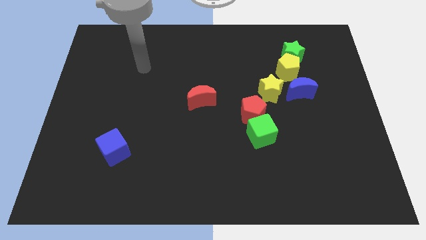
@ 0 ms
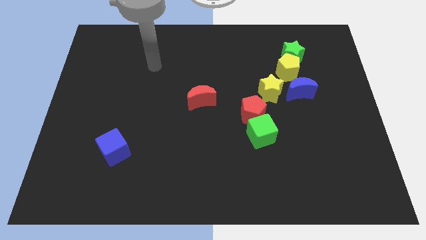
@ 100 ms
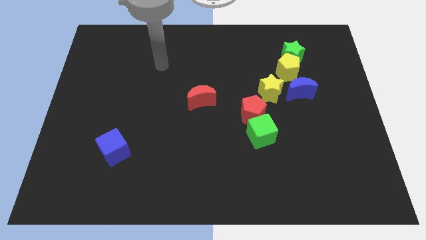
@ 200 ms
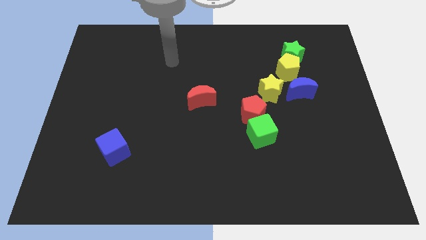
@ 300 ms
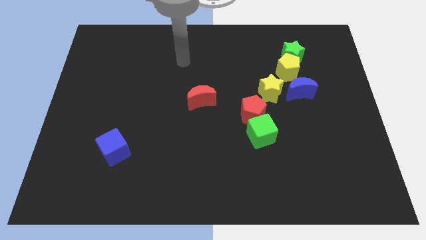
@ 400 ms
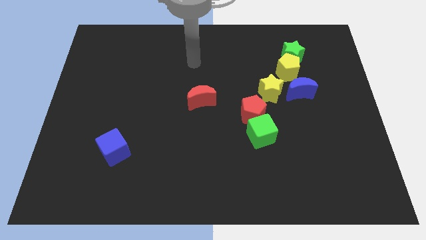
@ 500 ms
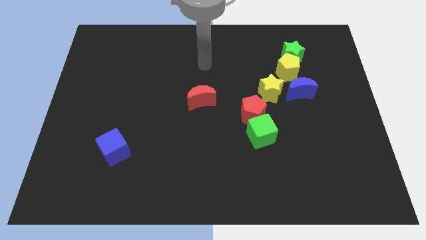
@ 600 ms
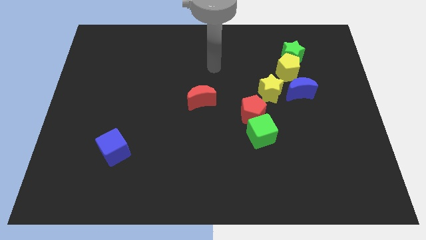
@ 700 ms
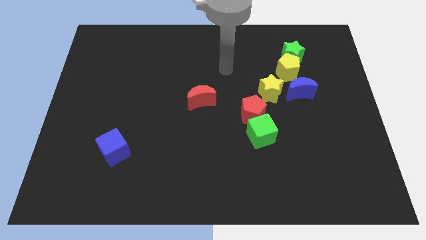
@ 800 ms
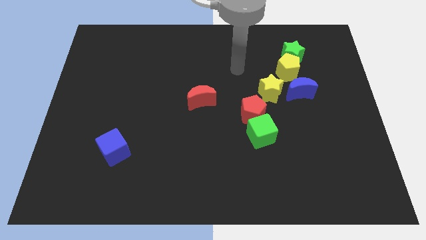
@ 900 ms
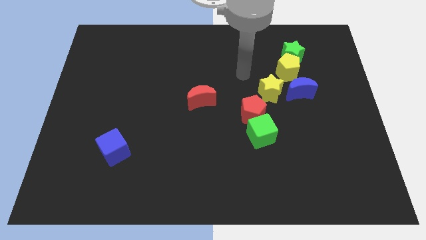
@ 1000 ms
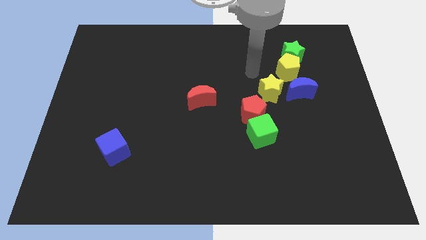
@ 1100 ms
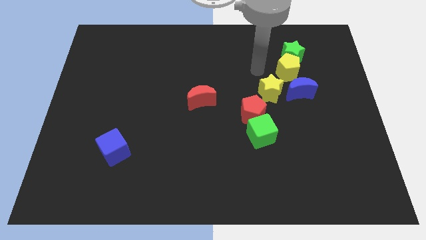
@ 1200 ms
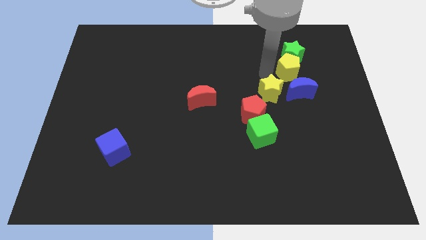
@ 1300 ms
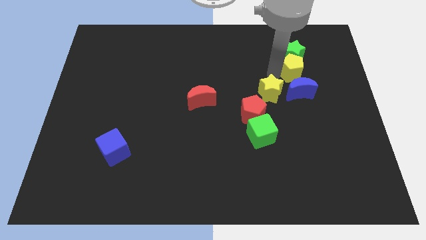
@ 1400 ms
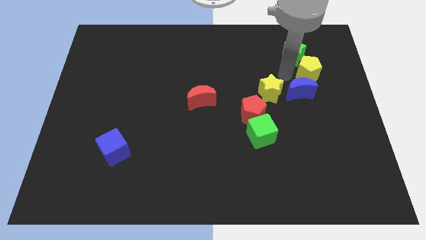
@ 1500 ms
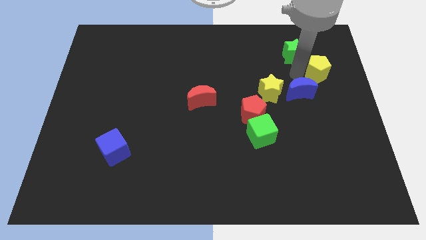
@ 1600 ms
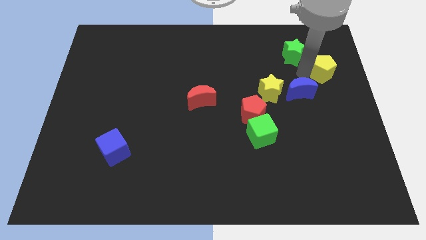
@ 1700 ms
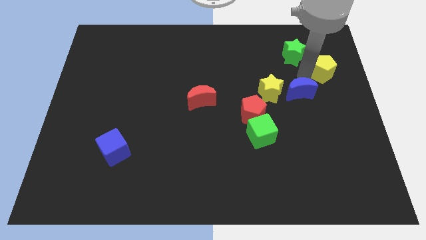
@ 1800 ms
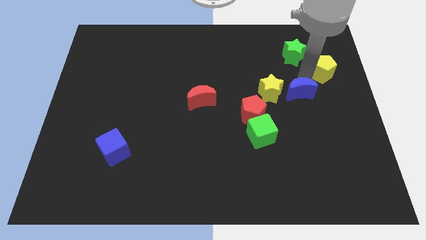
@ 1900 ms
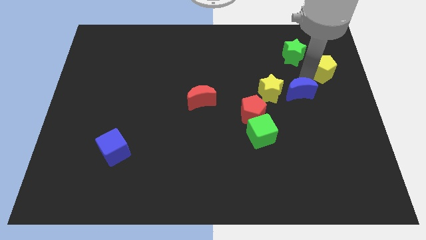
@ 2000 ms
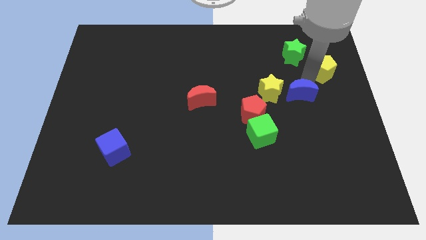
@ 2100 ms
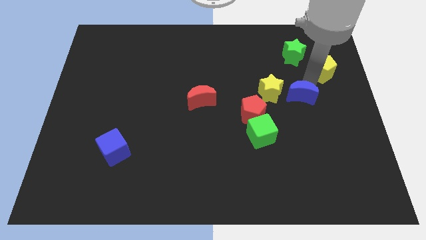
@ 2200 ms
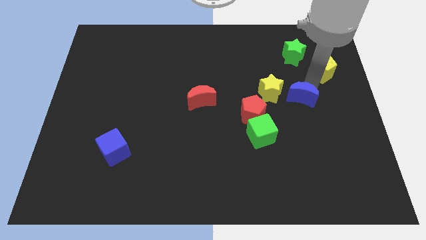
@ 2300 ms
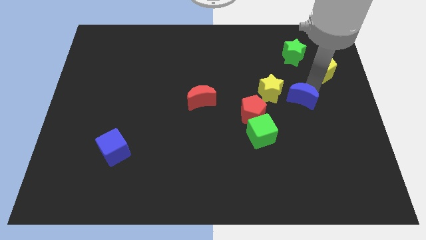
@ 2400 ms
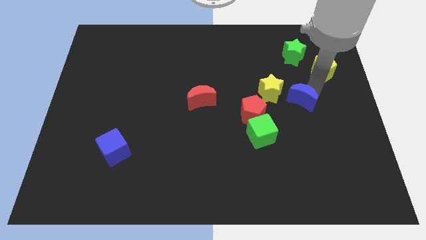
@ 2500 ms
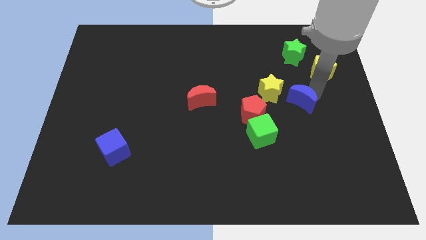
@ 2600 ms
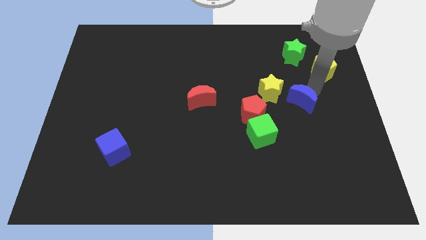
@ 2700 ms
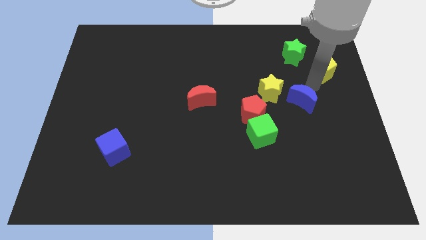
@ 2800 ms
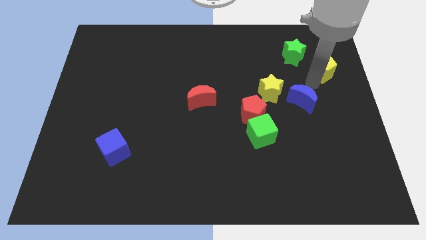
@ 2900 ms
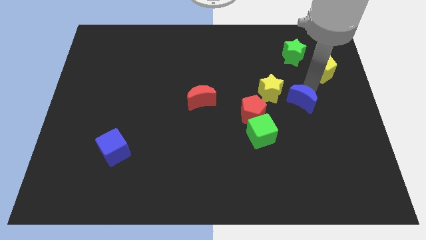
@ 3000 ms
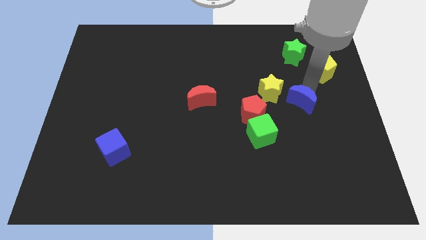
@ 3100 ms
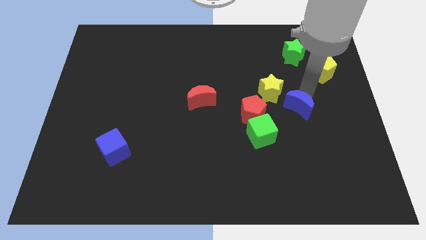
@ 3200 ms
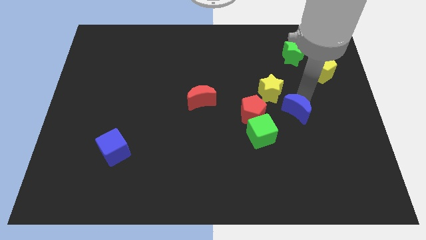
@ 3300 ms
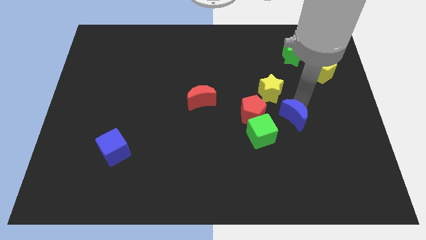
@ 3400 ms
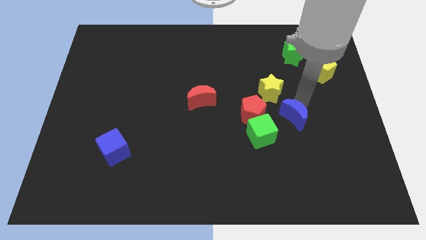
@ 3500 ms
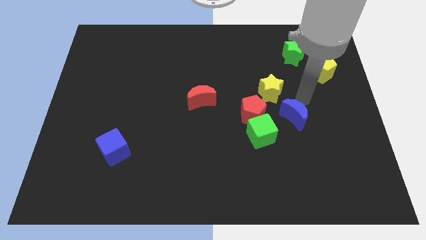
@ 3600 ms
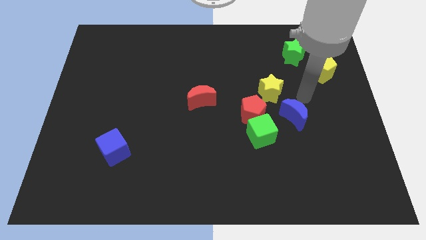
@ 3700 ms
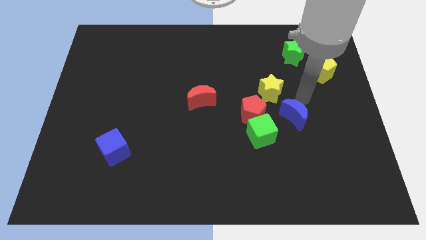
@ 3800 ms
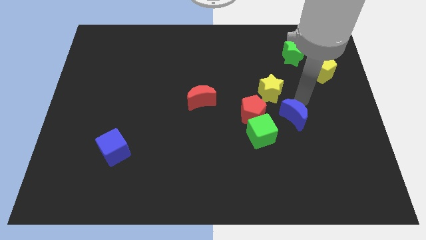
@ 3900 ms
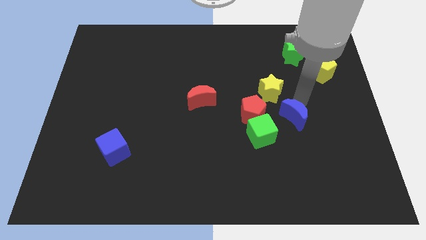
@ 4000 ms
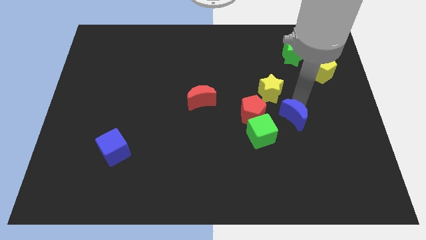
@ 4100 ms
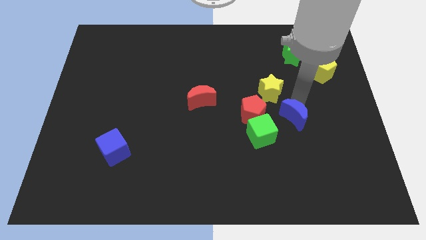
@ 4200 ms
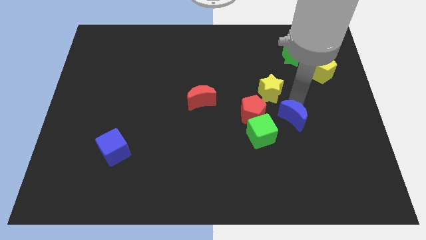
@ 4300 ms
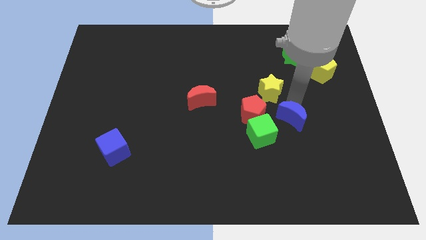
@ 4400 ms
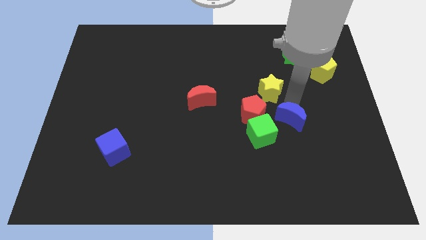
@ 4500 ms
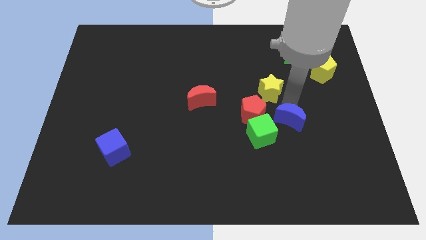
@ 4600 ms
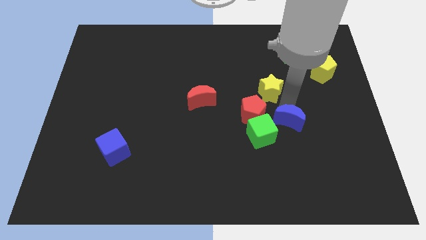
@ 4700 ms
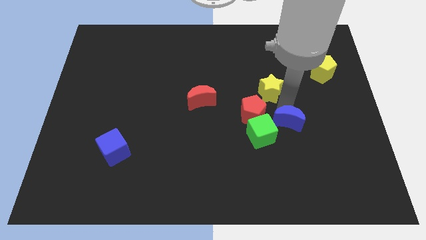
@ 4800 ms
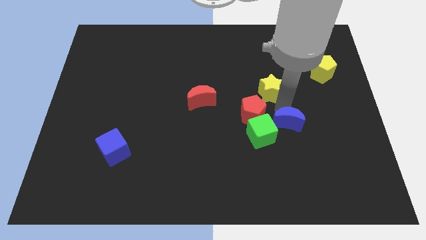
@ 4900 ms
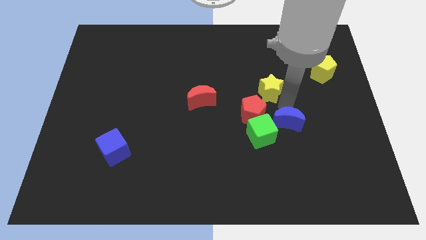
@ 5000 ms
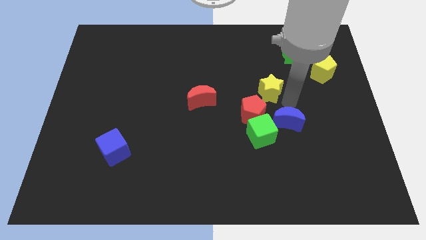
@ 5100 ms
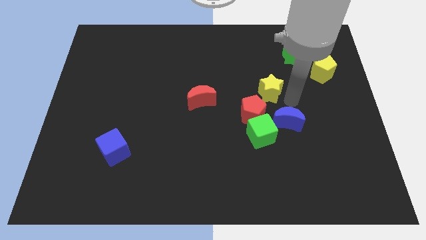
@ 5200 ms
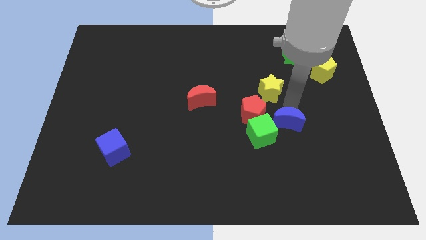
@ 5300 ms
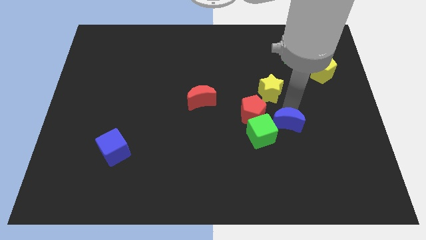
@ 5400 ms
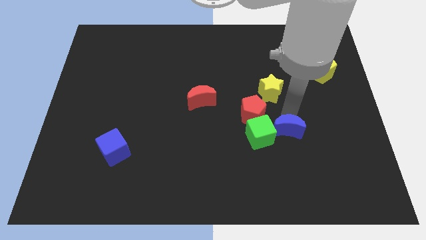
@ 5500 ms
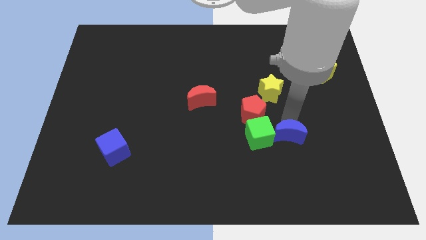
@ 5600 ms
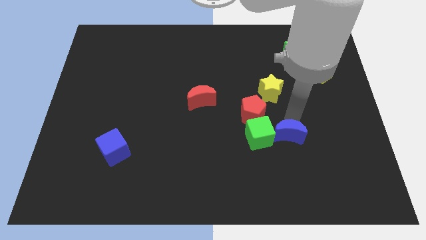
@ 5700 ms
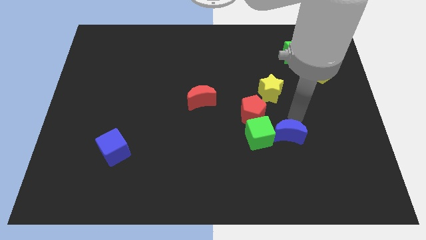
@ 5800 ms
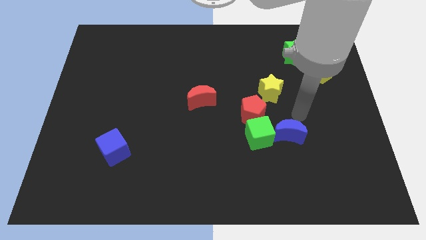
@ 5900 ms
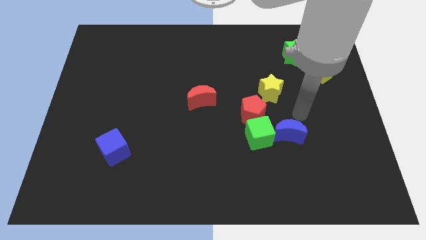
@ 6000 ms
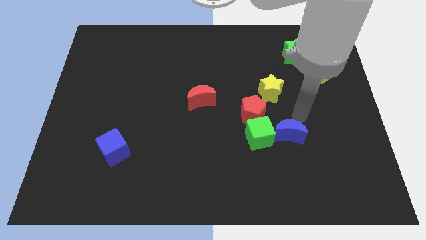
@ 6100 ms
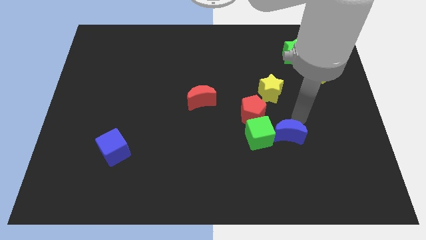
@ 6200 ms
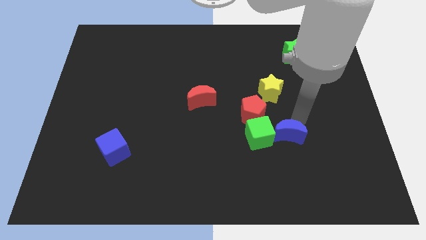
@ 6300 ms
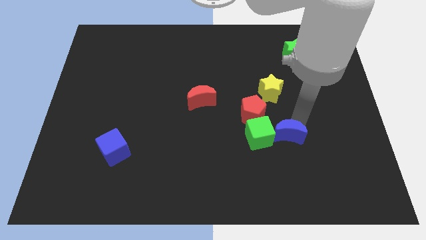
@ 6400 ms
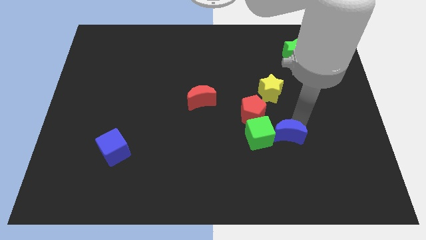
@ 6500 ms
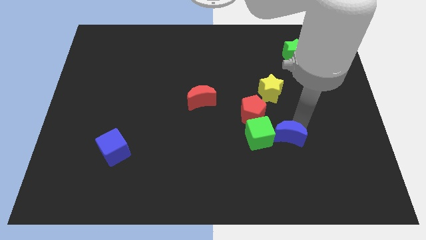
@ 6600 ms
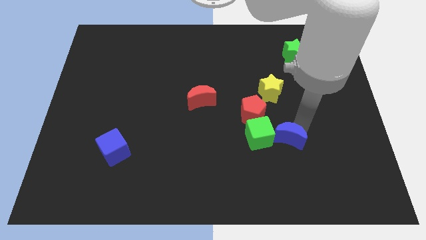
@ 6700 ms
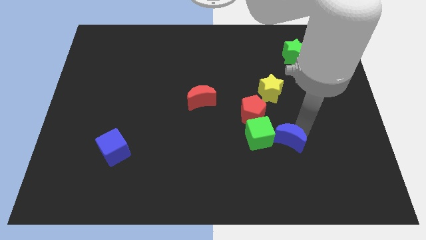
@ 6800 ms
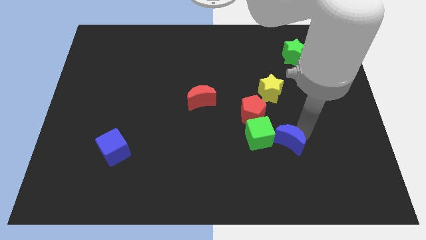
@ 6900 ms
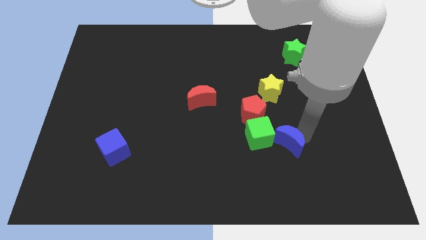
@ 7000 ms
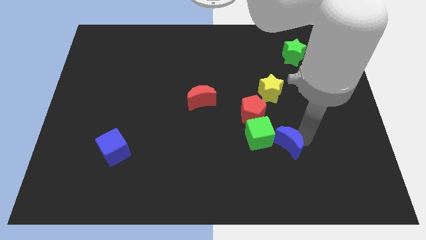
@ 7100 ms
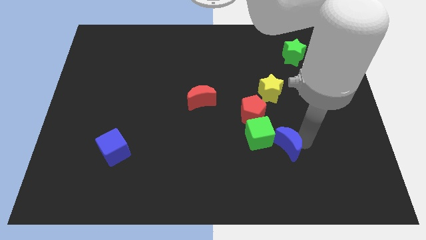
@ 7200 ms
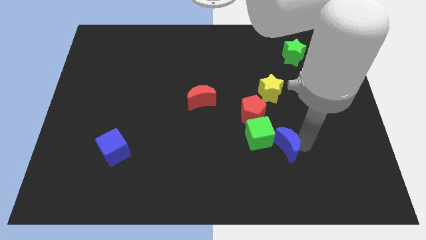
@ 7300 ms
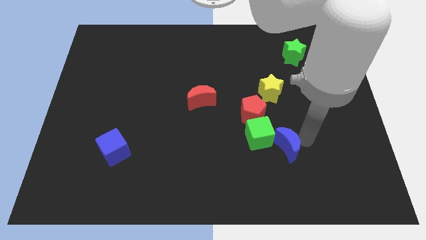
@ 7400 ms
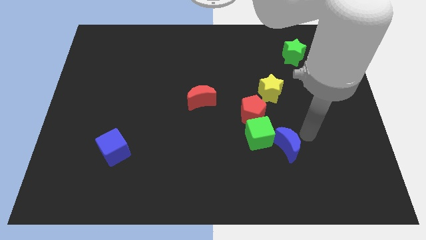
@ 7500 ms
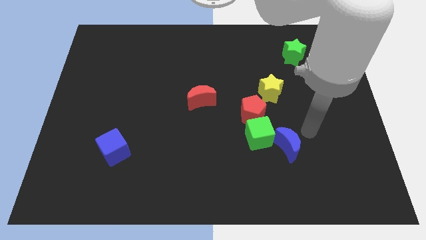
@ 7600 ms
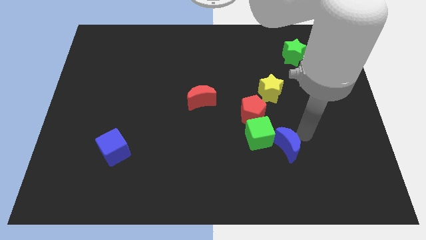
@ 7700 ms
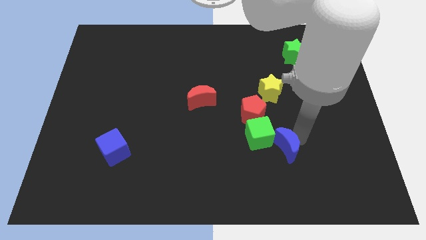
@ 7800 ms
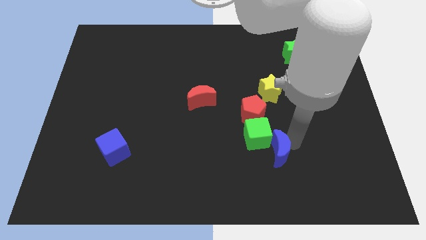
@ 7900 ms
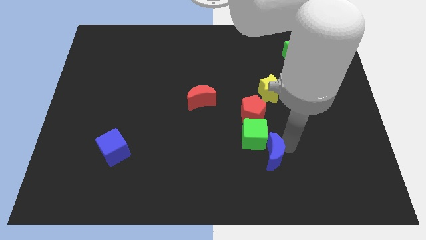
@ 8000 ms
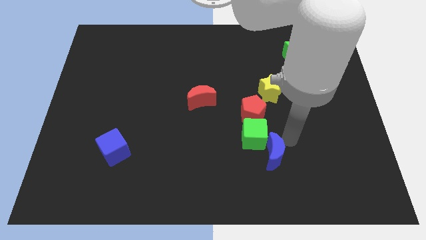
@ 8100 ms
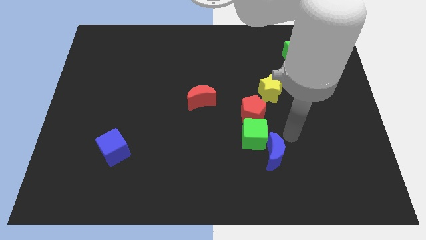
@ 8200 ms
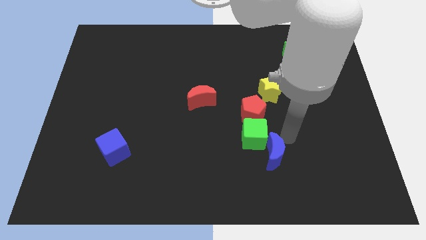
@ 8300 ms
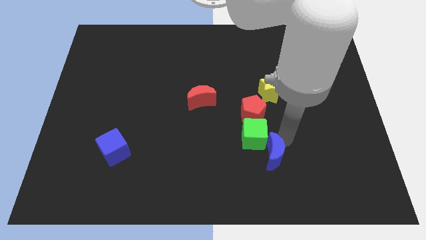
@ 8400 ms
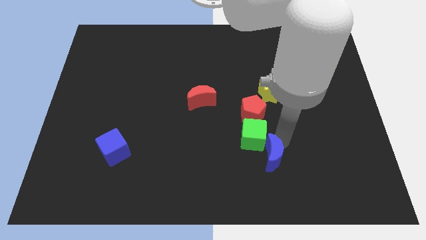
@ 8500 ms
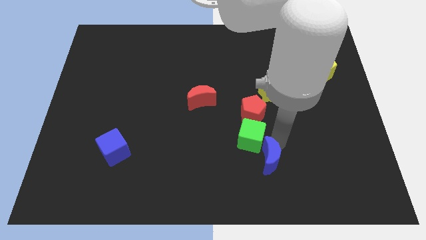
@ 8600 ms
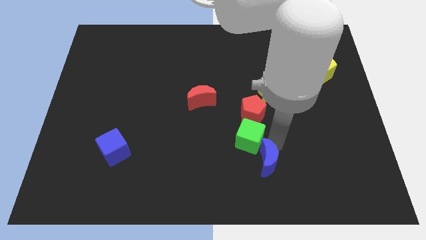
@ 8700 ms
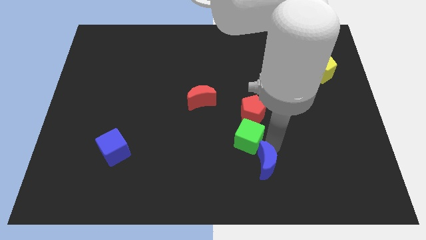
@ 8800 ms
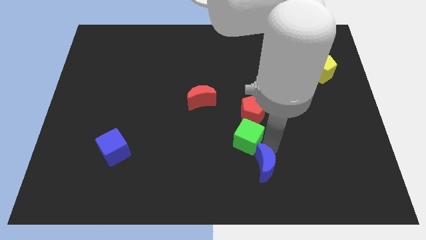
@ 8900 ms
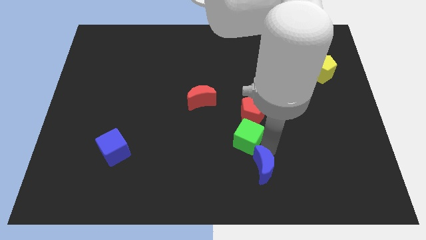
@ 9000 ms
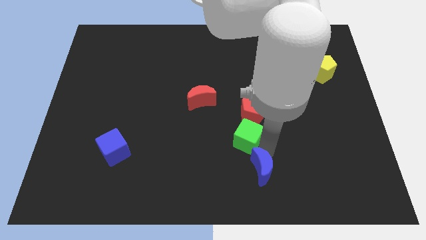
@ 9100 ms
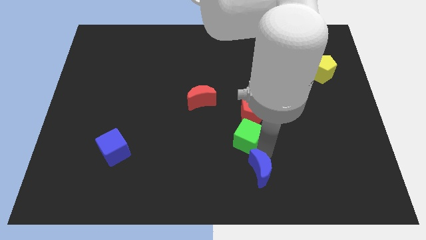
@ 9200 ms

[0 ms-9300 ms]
push the blue moon to the bottom
